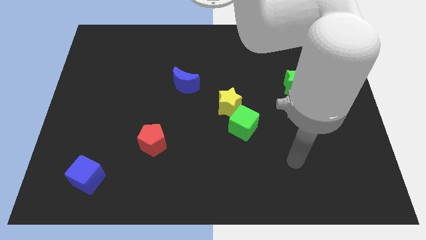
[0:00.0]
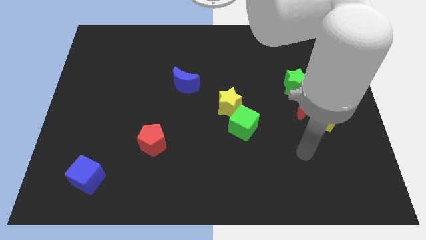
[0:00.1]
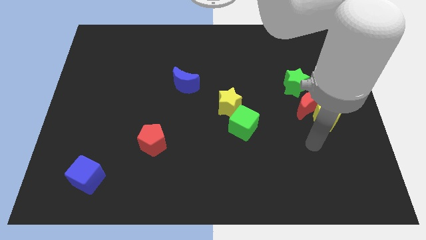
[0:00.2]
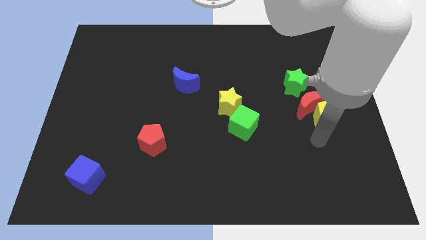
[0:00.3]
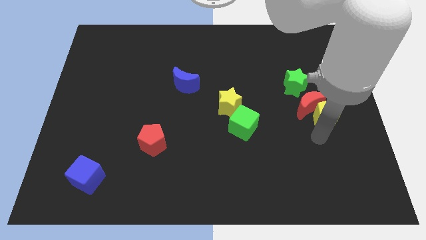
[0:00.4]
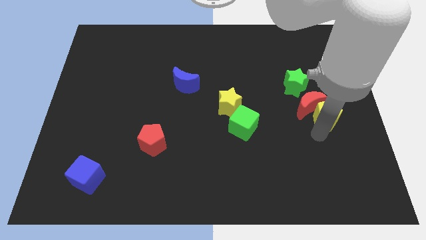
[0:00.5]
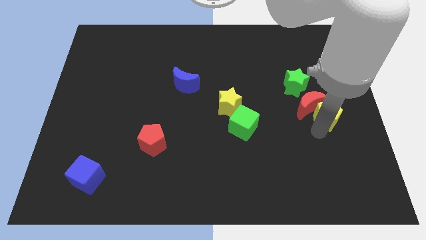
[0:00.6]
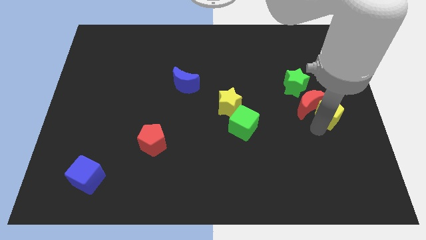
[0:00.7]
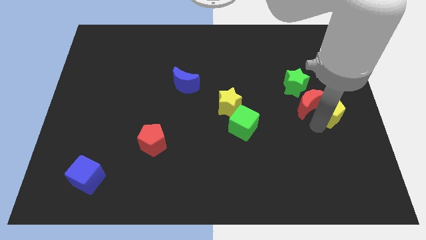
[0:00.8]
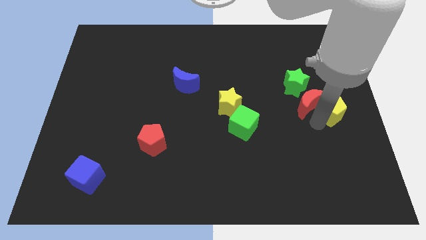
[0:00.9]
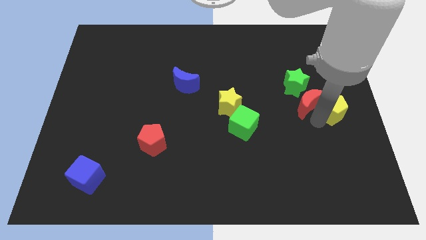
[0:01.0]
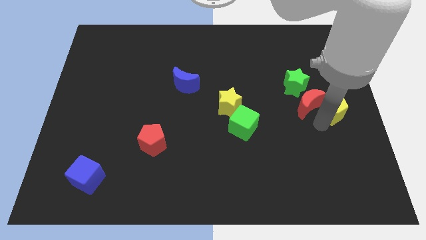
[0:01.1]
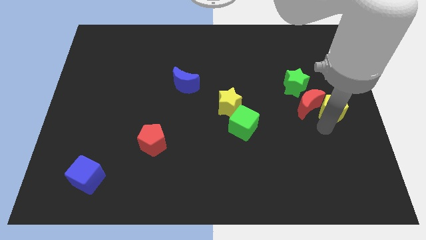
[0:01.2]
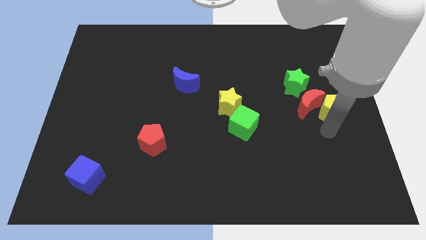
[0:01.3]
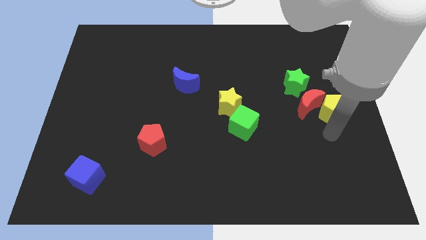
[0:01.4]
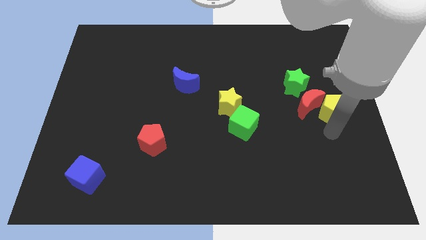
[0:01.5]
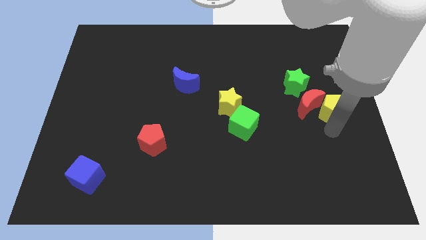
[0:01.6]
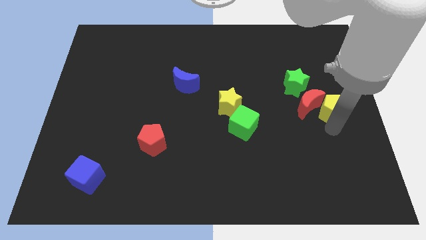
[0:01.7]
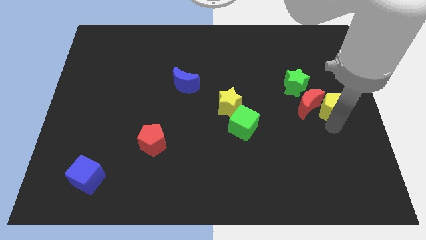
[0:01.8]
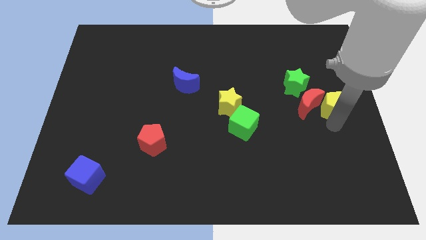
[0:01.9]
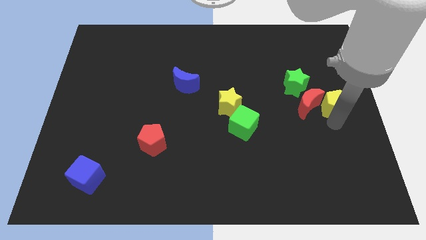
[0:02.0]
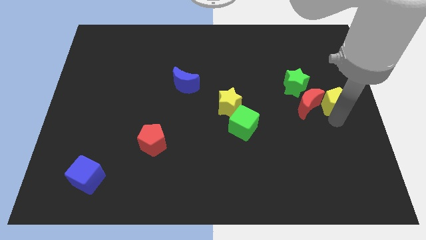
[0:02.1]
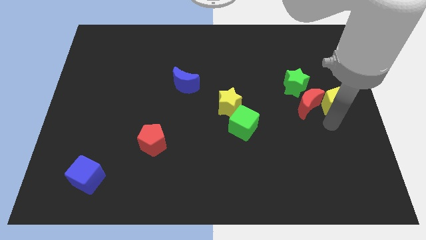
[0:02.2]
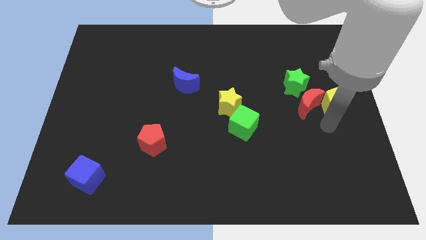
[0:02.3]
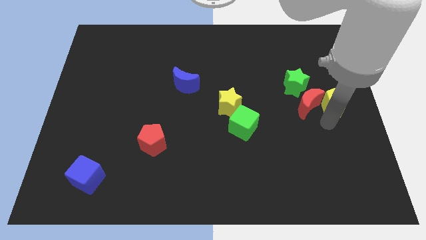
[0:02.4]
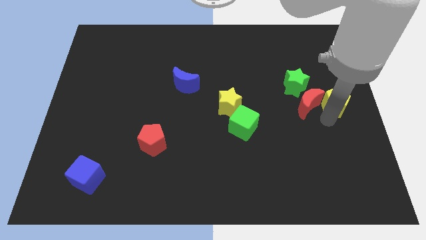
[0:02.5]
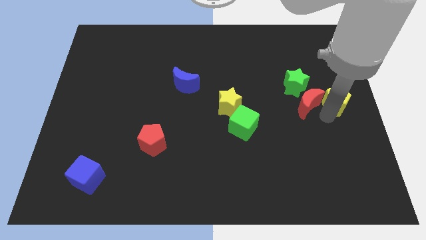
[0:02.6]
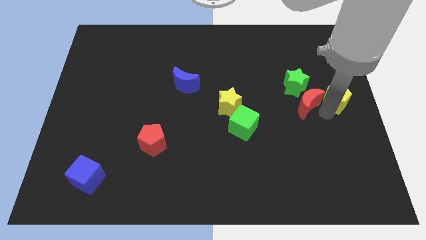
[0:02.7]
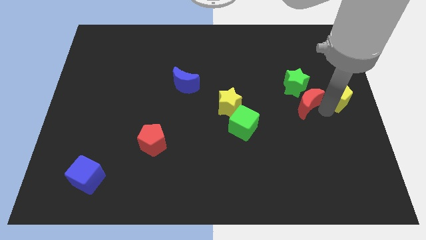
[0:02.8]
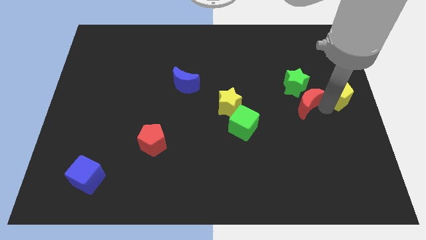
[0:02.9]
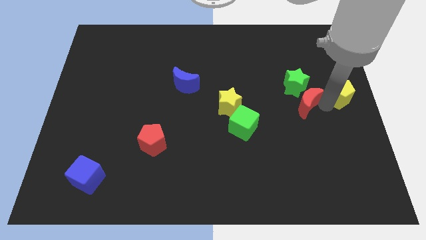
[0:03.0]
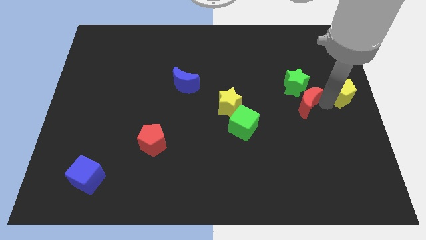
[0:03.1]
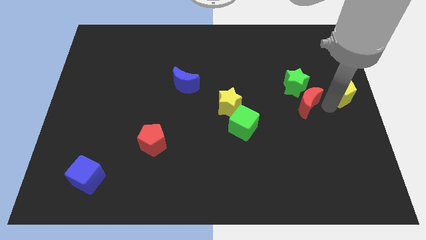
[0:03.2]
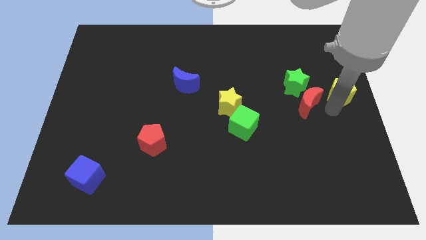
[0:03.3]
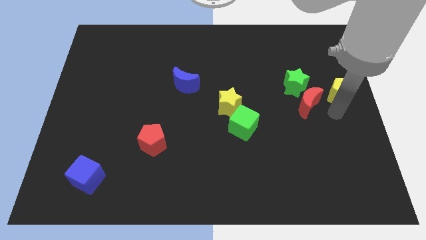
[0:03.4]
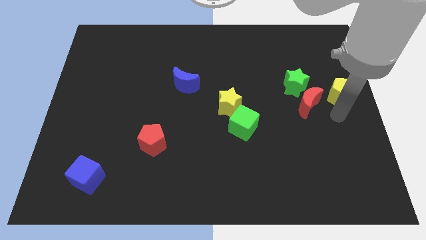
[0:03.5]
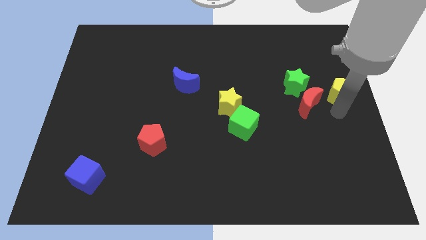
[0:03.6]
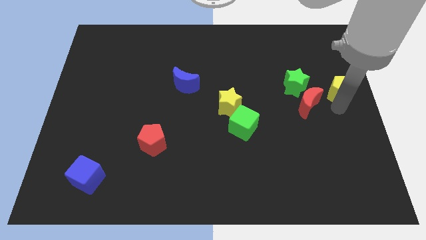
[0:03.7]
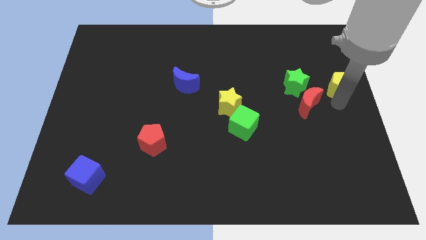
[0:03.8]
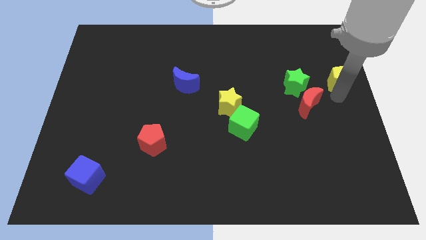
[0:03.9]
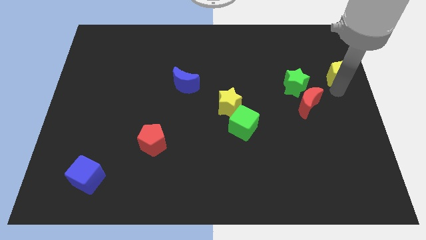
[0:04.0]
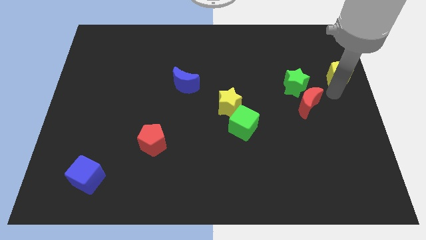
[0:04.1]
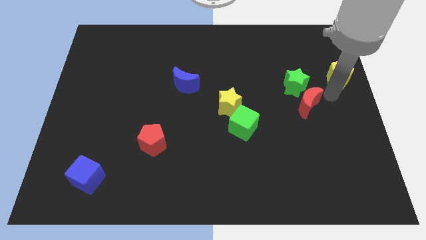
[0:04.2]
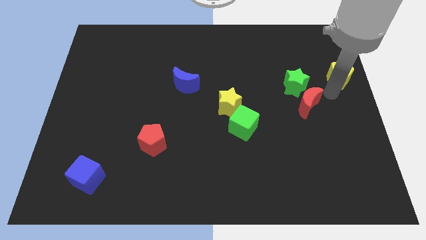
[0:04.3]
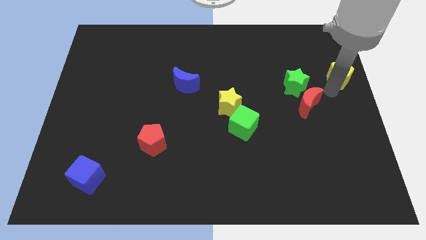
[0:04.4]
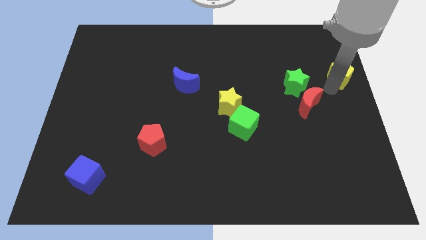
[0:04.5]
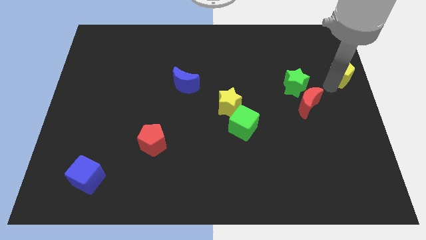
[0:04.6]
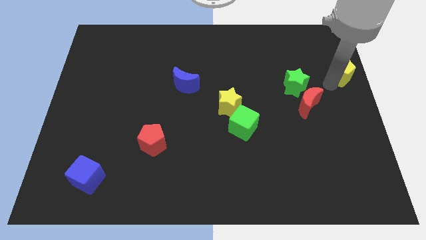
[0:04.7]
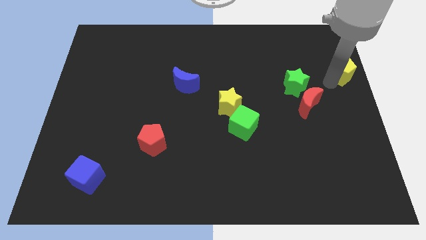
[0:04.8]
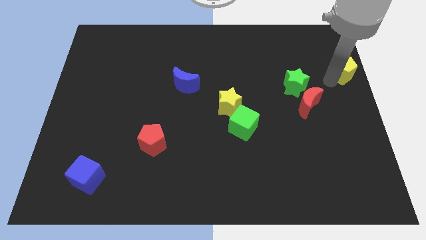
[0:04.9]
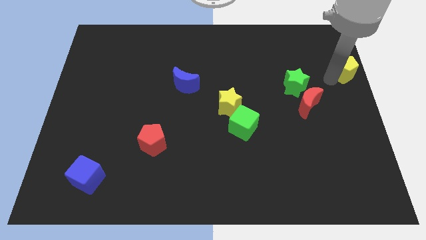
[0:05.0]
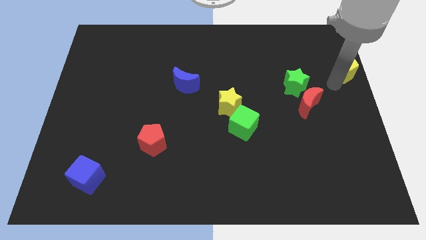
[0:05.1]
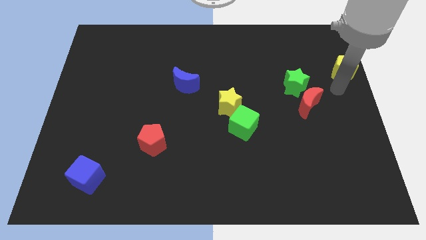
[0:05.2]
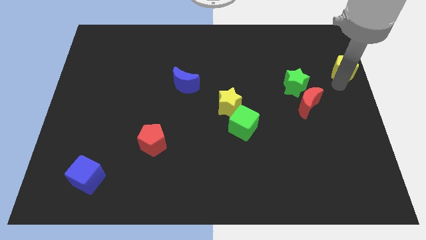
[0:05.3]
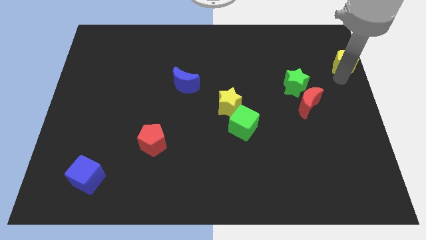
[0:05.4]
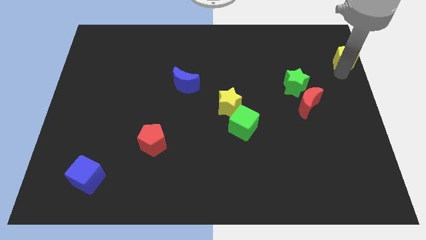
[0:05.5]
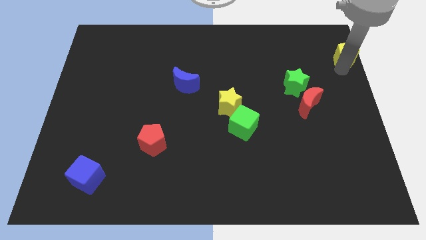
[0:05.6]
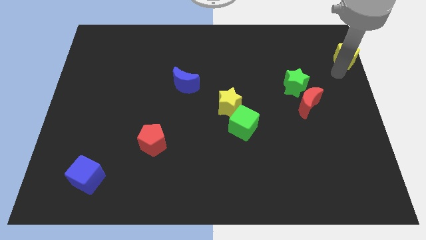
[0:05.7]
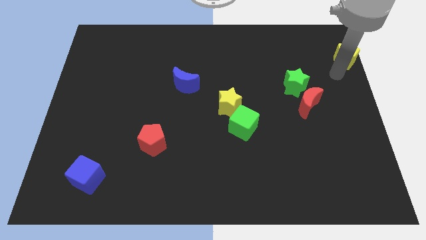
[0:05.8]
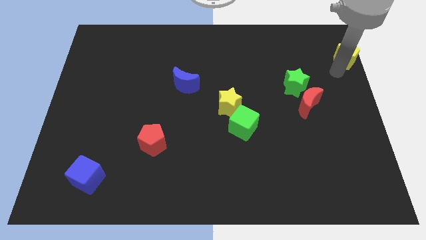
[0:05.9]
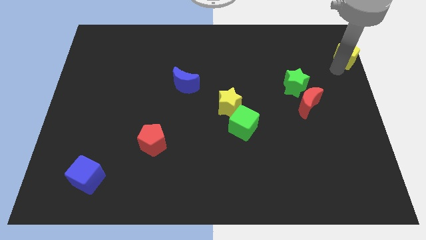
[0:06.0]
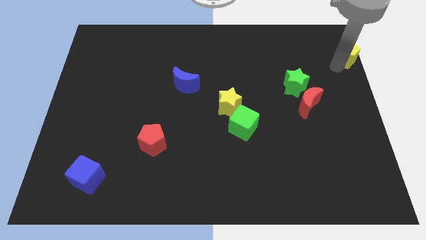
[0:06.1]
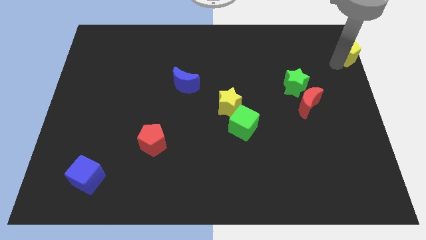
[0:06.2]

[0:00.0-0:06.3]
slide the yellow pentagon to the top right corner

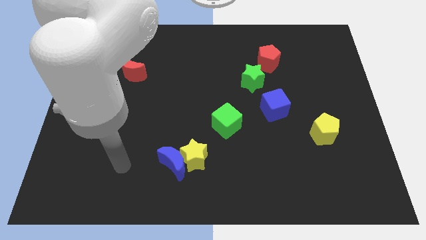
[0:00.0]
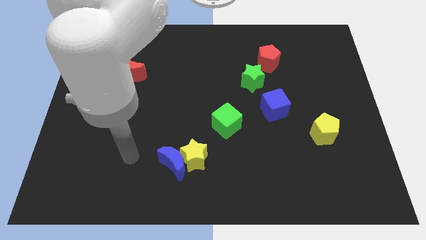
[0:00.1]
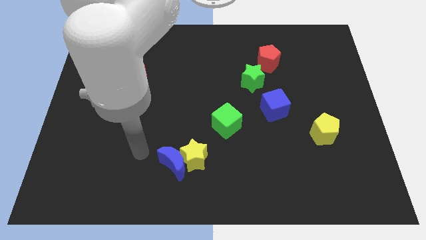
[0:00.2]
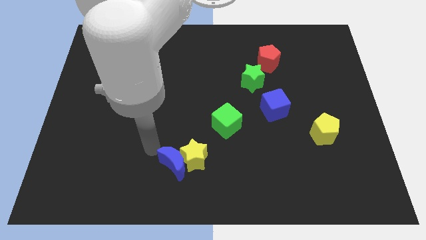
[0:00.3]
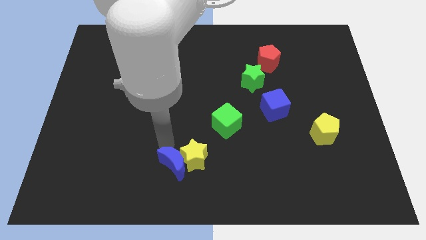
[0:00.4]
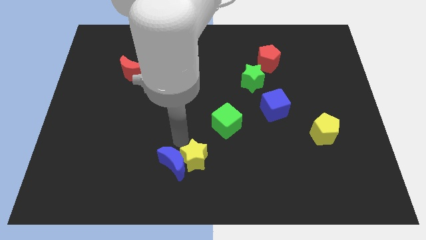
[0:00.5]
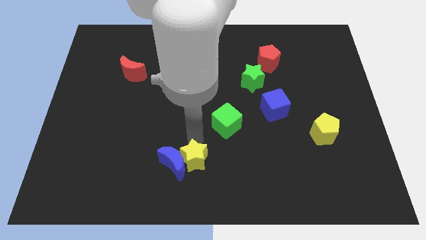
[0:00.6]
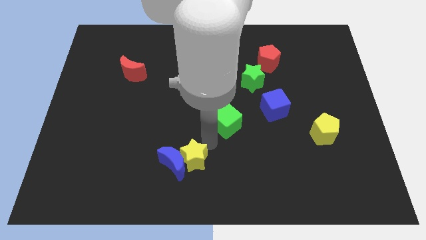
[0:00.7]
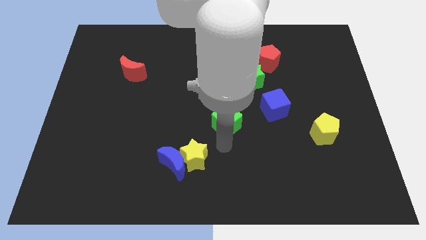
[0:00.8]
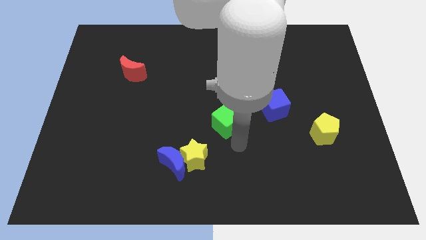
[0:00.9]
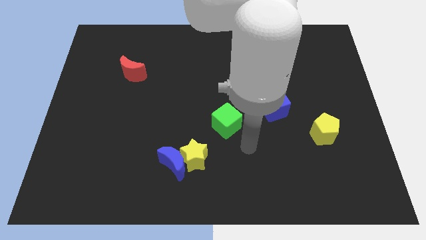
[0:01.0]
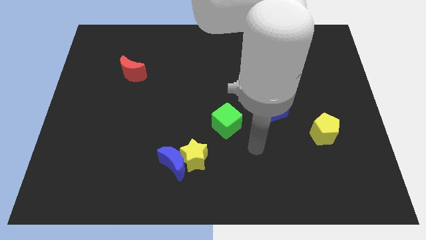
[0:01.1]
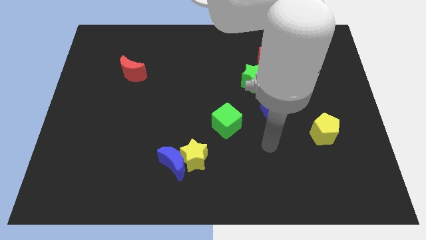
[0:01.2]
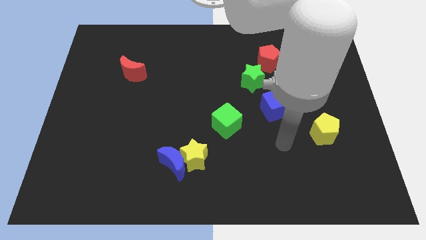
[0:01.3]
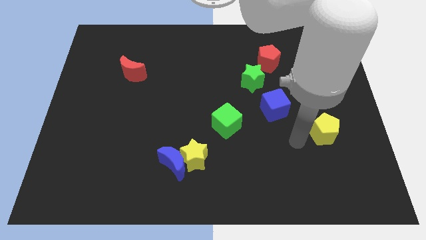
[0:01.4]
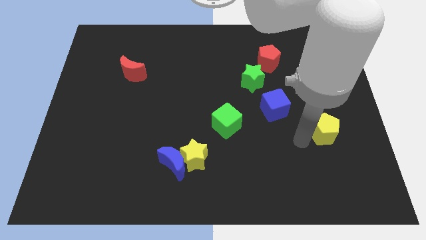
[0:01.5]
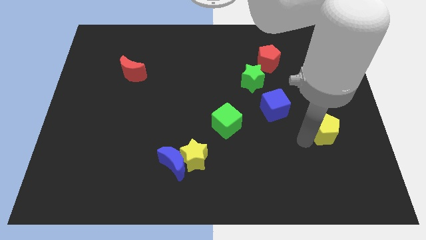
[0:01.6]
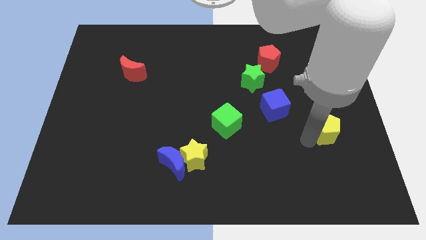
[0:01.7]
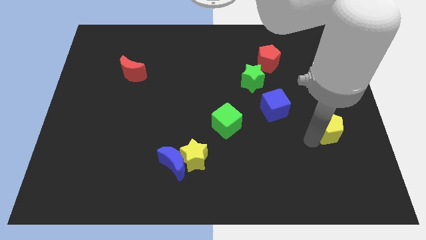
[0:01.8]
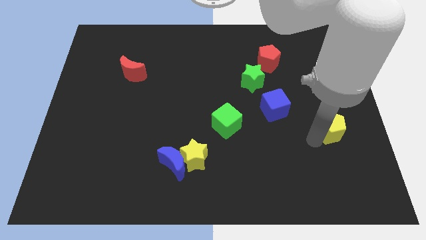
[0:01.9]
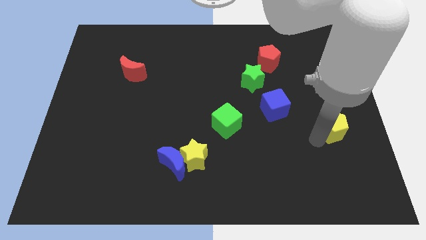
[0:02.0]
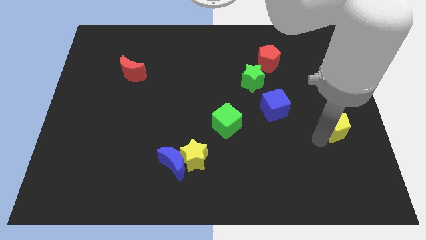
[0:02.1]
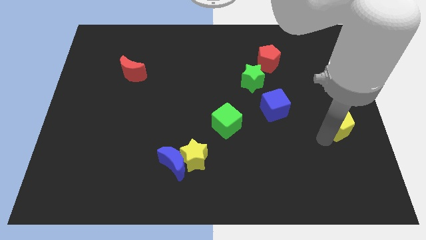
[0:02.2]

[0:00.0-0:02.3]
move the yellow pentagon to the center right
